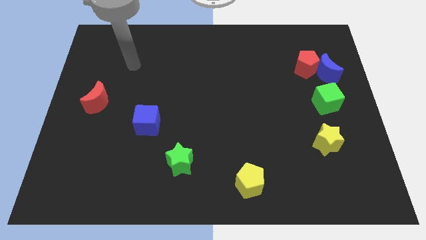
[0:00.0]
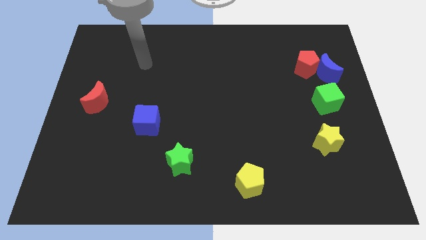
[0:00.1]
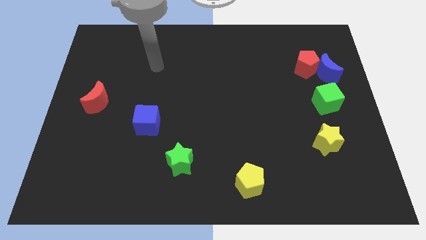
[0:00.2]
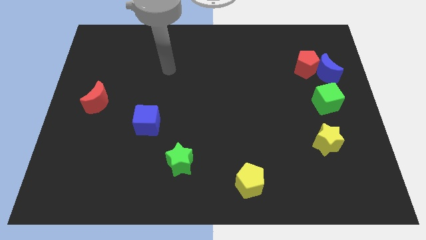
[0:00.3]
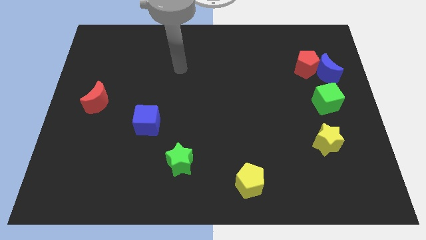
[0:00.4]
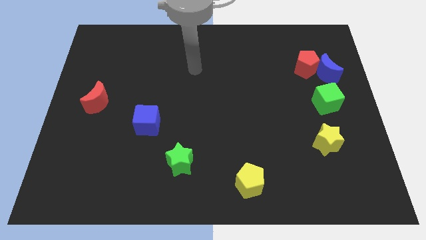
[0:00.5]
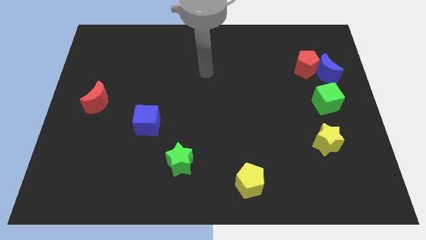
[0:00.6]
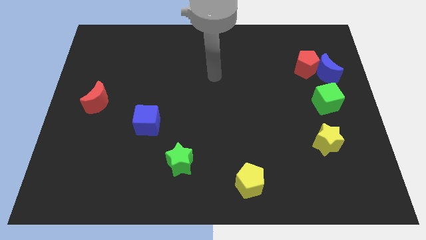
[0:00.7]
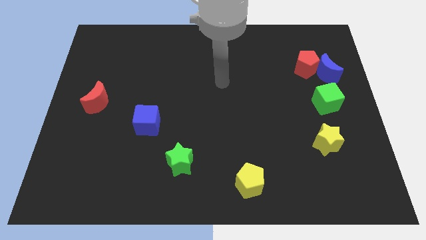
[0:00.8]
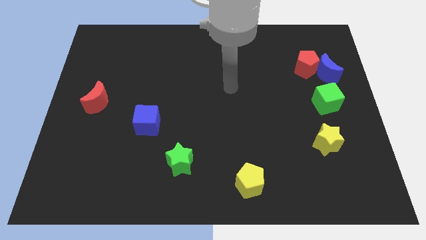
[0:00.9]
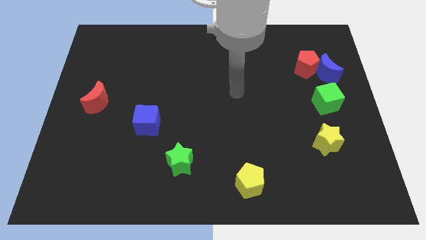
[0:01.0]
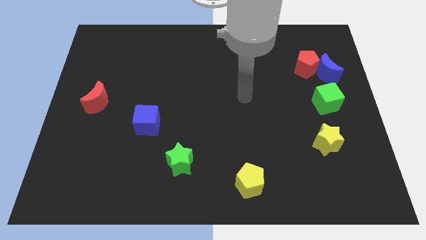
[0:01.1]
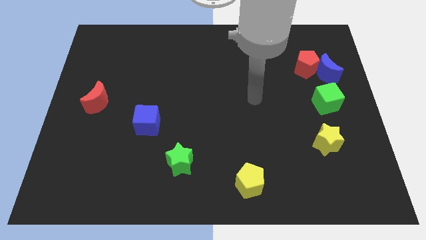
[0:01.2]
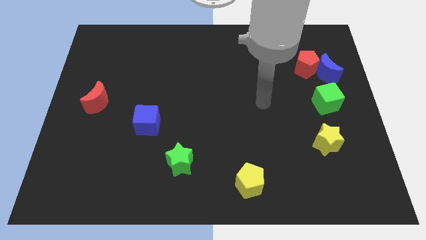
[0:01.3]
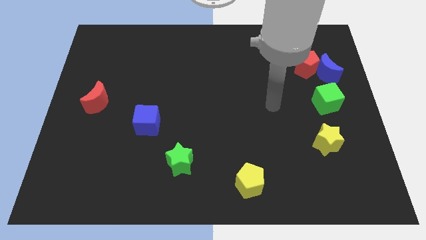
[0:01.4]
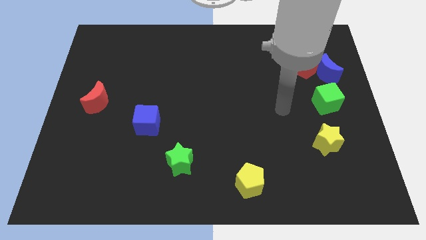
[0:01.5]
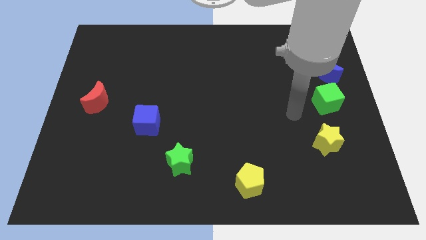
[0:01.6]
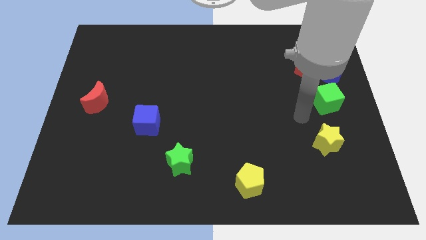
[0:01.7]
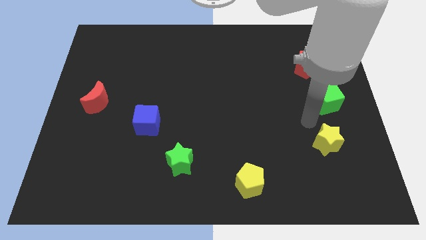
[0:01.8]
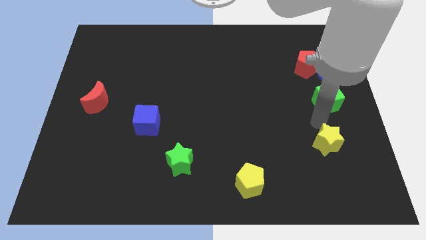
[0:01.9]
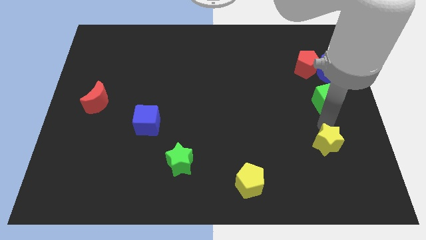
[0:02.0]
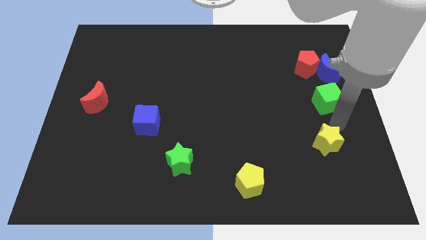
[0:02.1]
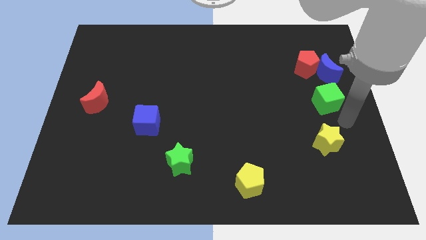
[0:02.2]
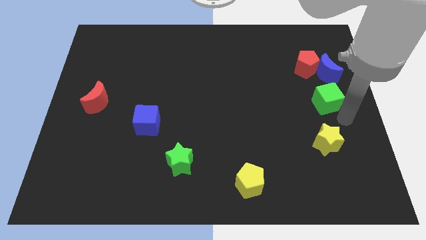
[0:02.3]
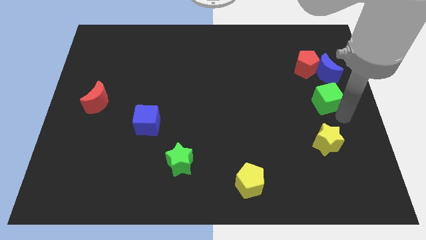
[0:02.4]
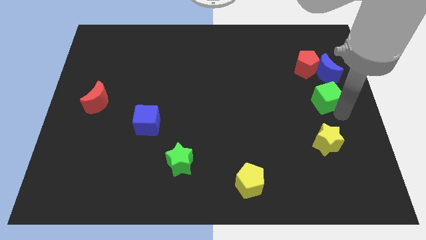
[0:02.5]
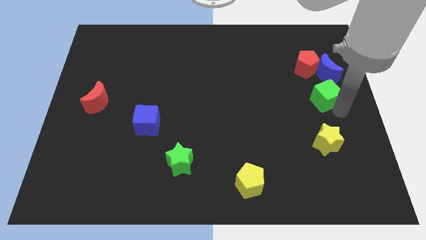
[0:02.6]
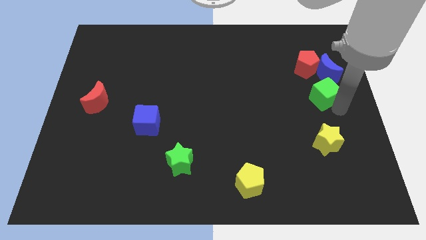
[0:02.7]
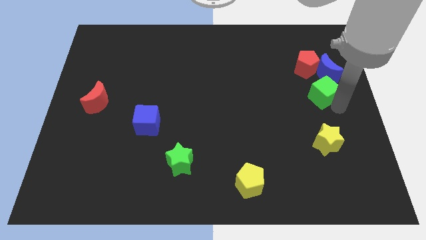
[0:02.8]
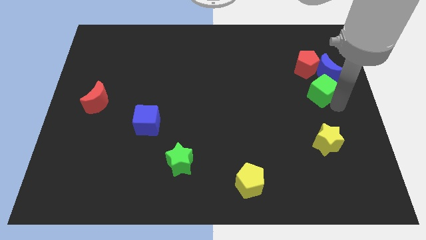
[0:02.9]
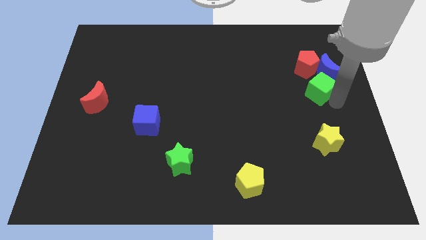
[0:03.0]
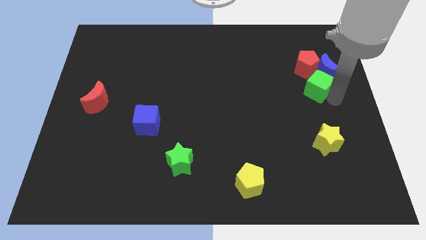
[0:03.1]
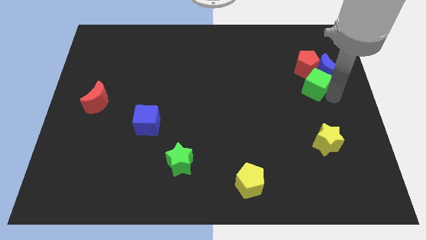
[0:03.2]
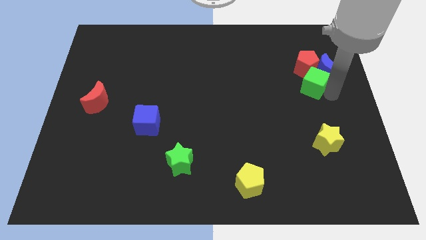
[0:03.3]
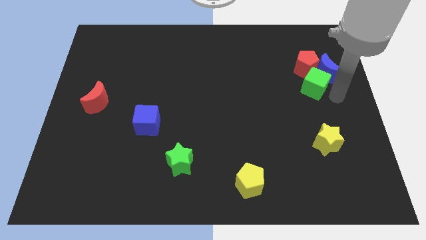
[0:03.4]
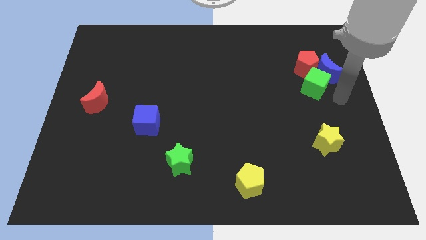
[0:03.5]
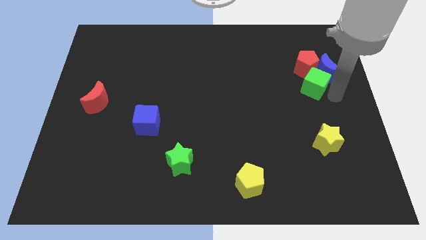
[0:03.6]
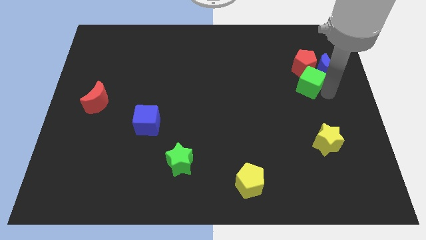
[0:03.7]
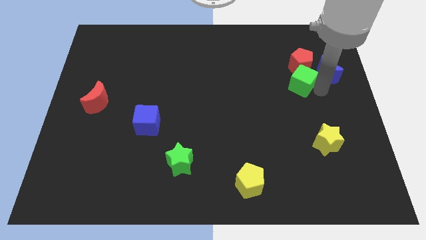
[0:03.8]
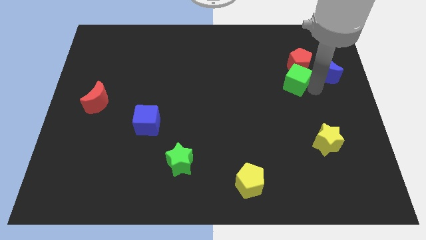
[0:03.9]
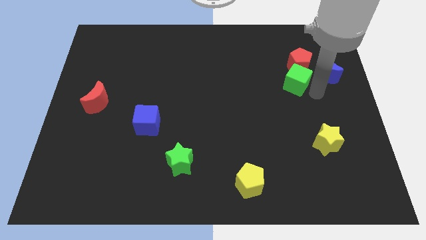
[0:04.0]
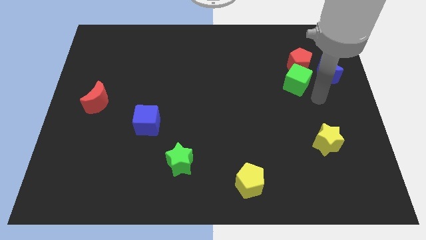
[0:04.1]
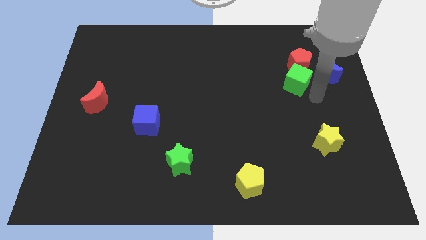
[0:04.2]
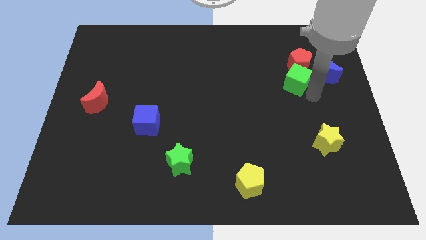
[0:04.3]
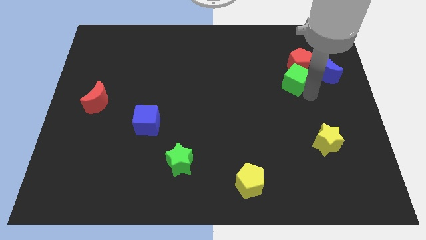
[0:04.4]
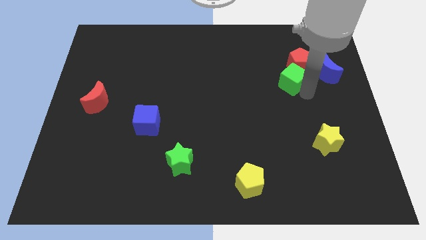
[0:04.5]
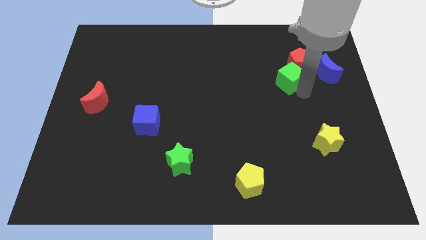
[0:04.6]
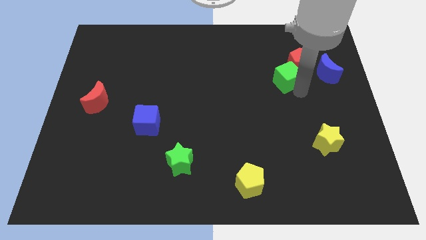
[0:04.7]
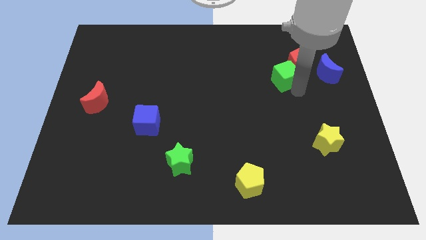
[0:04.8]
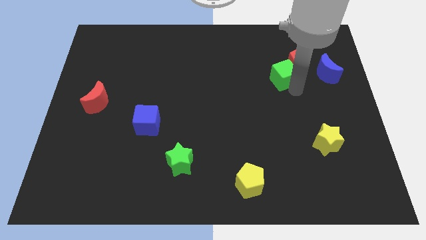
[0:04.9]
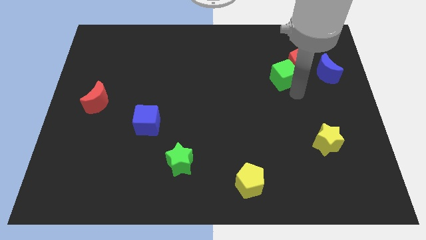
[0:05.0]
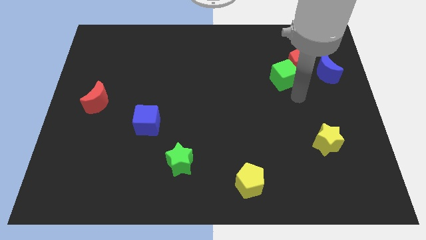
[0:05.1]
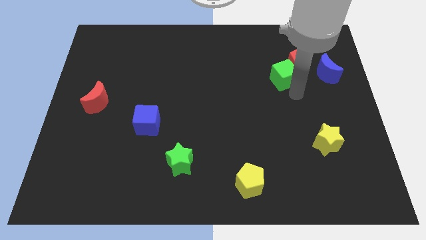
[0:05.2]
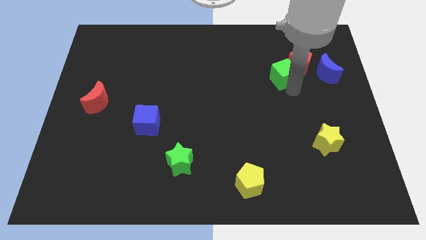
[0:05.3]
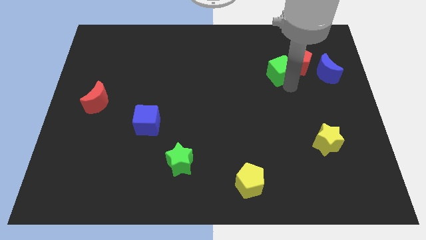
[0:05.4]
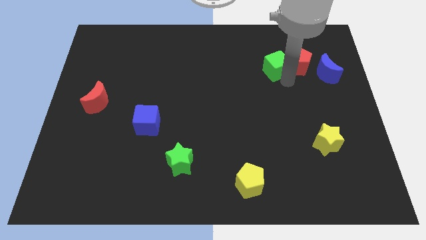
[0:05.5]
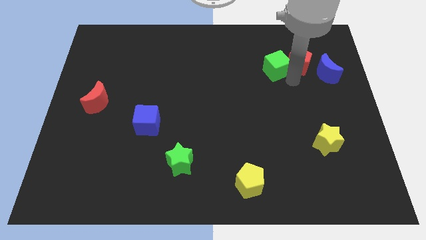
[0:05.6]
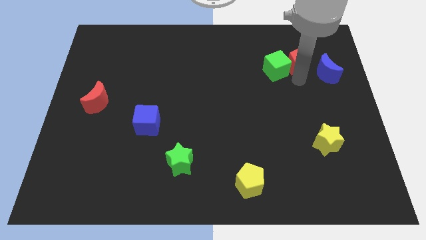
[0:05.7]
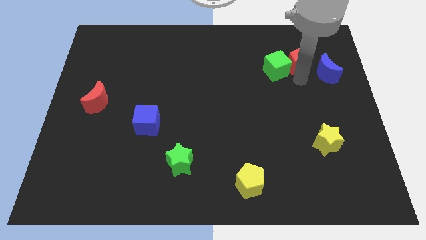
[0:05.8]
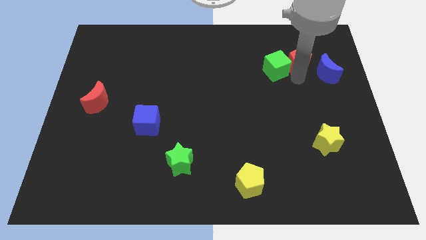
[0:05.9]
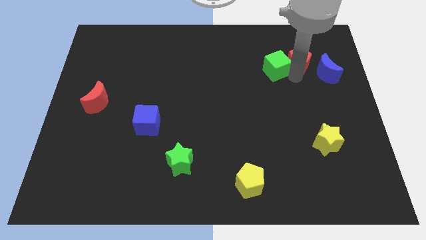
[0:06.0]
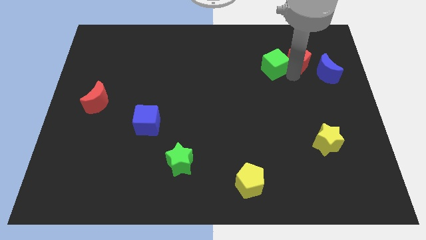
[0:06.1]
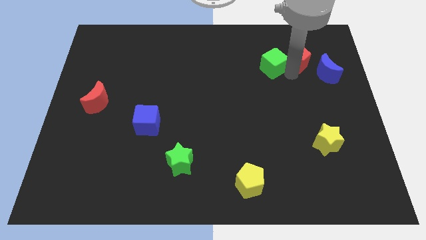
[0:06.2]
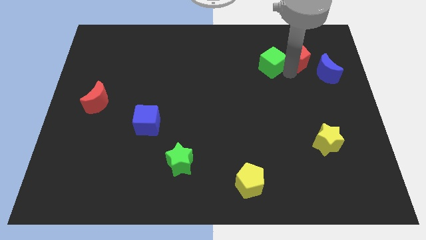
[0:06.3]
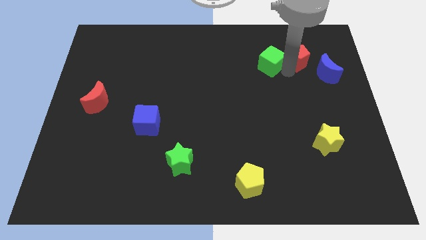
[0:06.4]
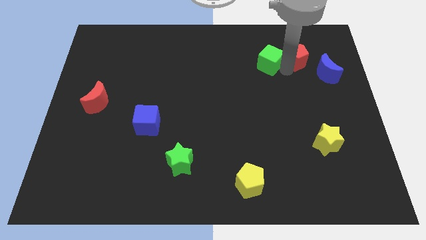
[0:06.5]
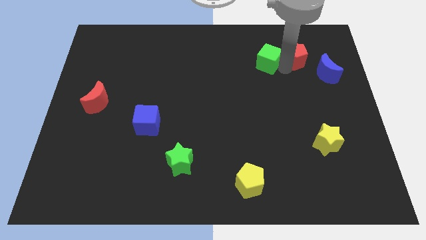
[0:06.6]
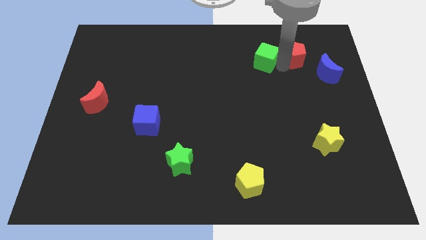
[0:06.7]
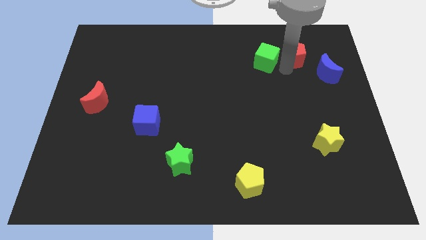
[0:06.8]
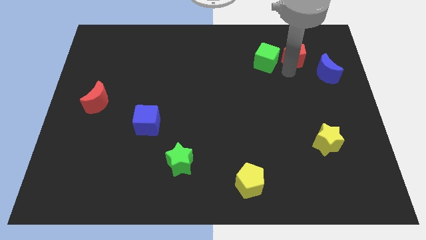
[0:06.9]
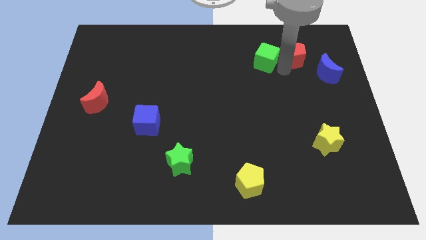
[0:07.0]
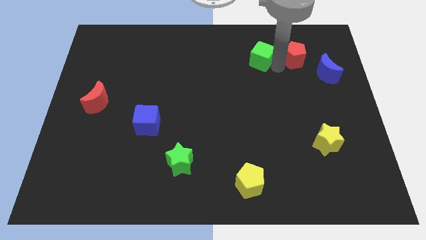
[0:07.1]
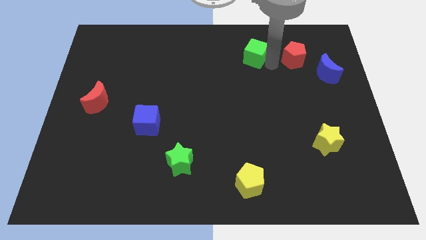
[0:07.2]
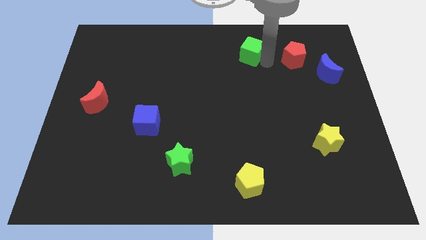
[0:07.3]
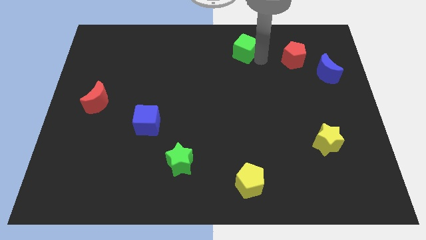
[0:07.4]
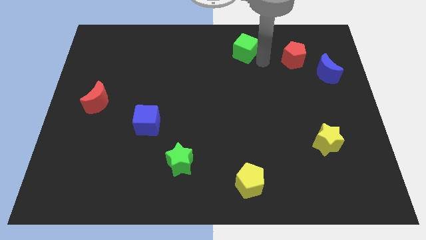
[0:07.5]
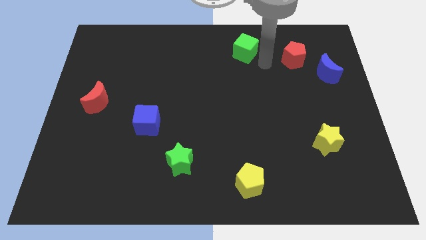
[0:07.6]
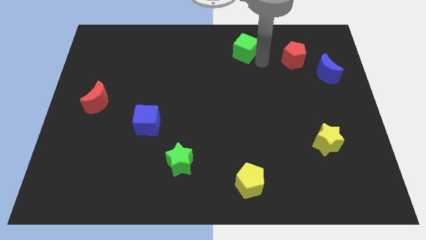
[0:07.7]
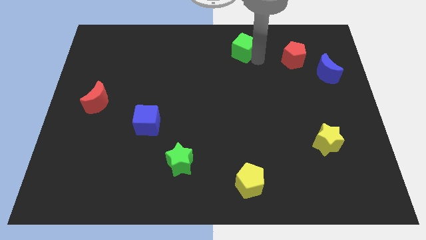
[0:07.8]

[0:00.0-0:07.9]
slide the green cube to the towards your base
